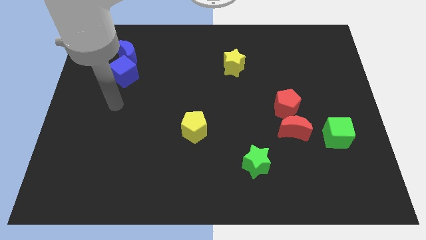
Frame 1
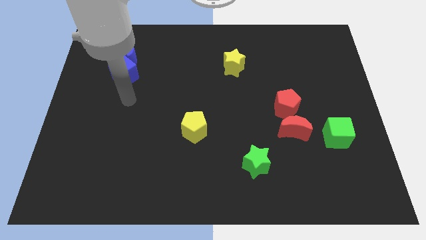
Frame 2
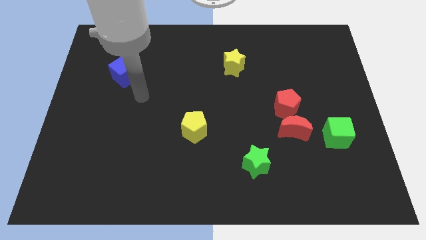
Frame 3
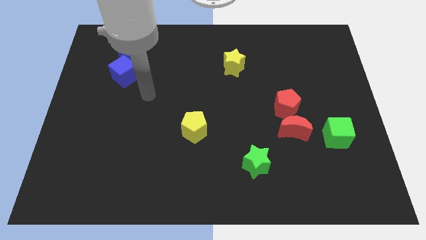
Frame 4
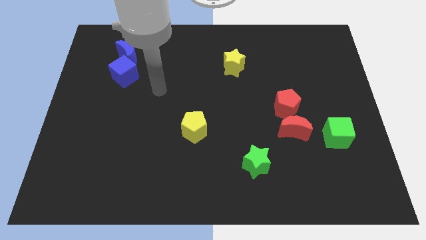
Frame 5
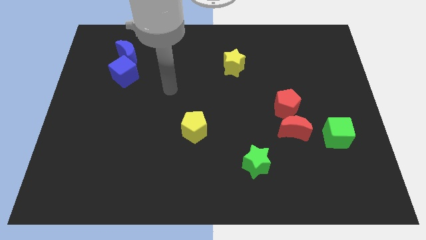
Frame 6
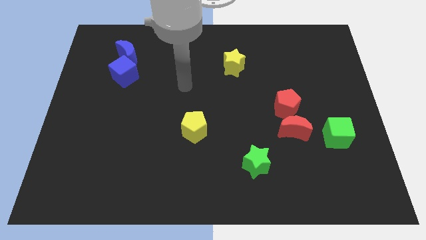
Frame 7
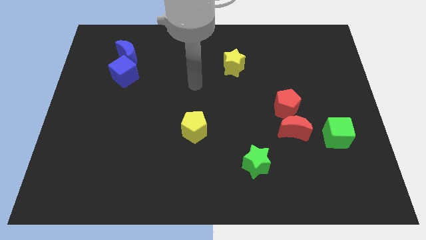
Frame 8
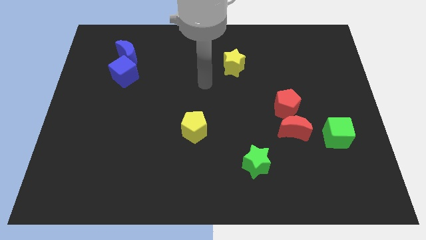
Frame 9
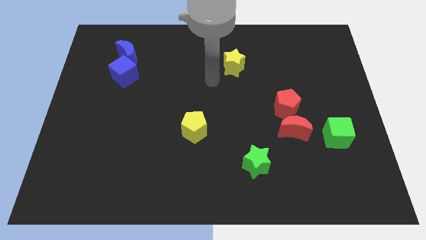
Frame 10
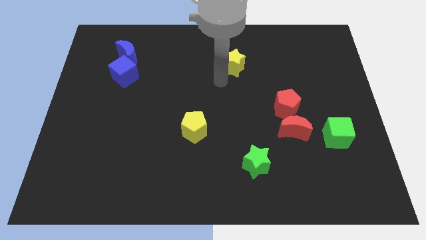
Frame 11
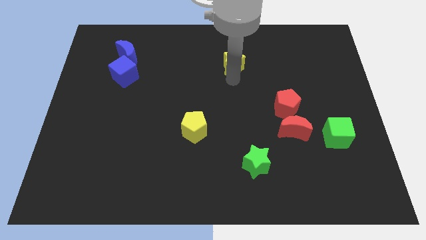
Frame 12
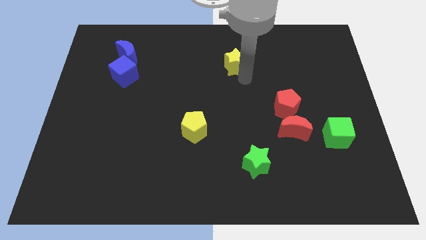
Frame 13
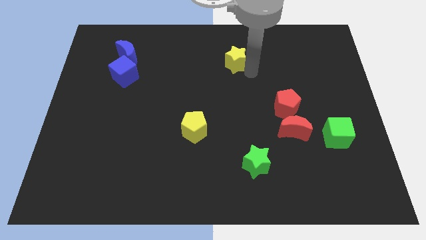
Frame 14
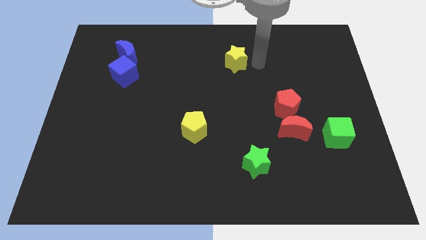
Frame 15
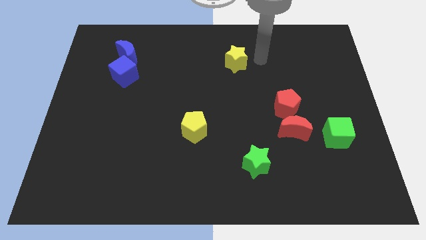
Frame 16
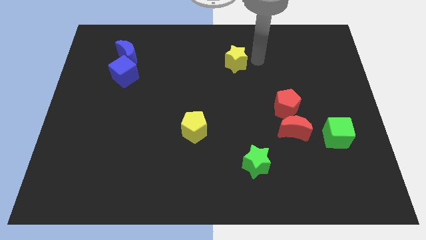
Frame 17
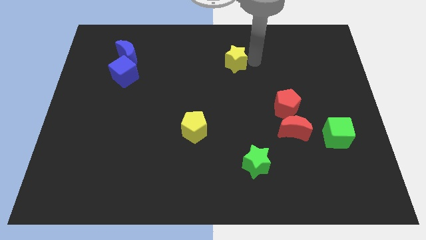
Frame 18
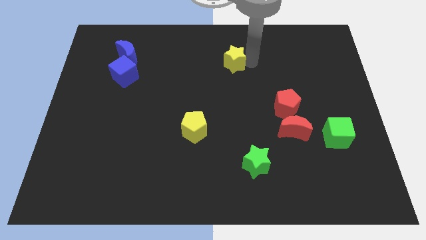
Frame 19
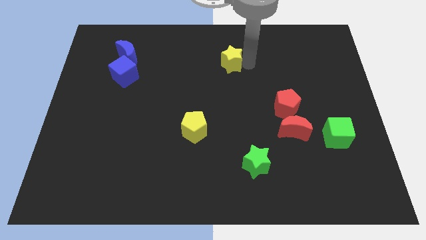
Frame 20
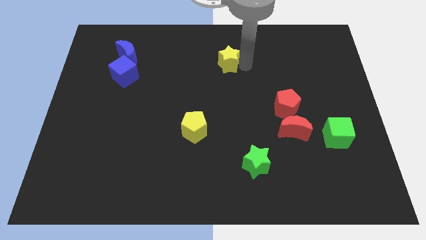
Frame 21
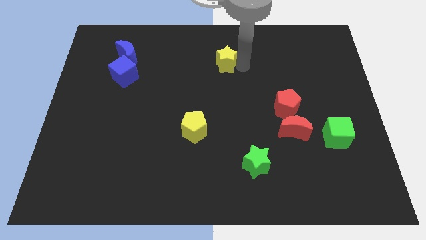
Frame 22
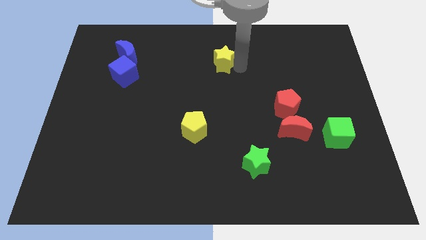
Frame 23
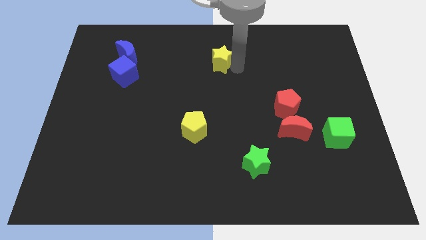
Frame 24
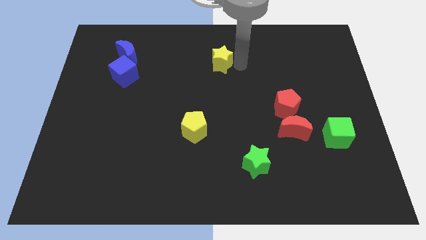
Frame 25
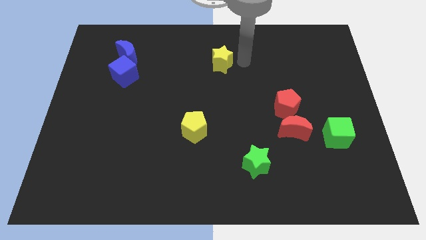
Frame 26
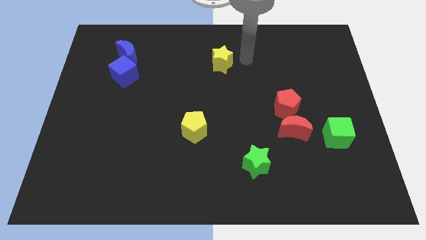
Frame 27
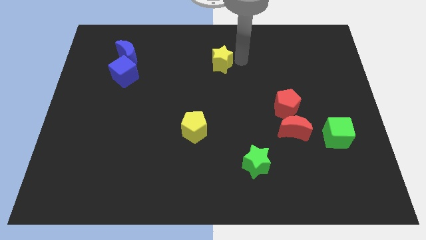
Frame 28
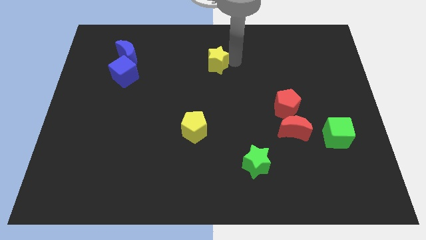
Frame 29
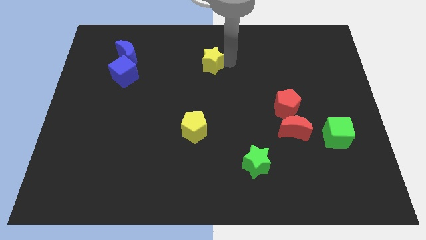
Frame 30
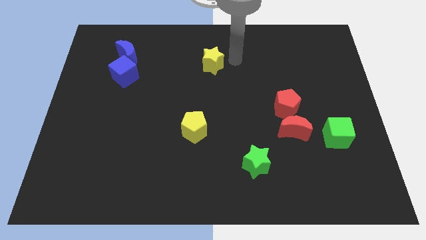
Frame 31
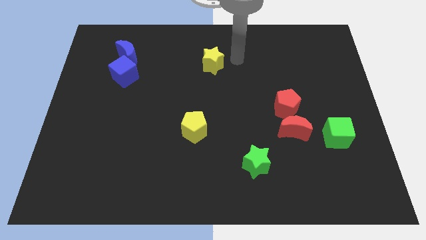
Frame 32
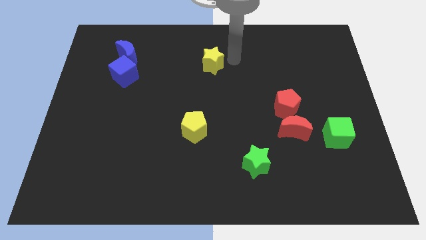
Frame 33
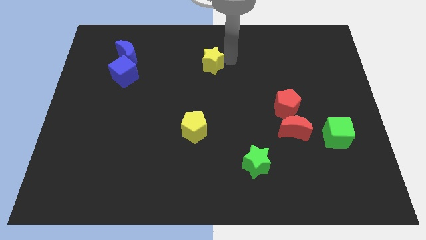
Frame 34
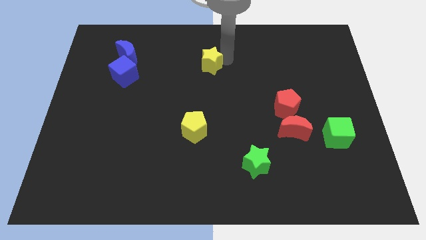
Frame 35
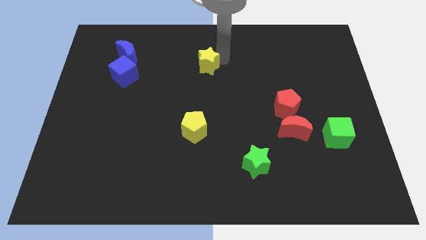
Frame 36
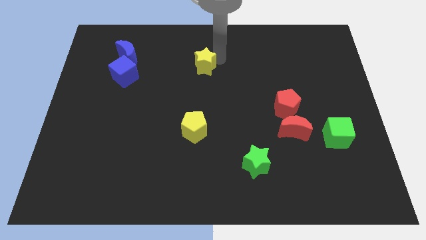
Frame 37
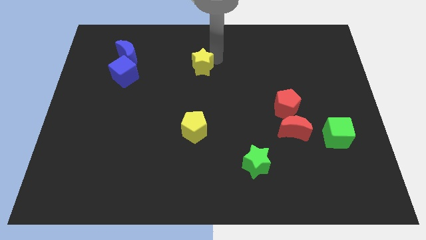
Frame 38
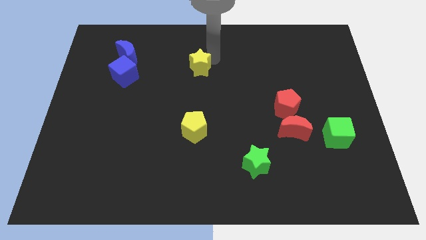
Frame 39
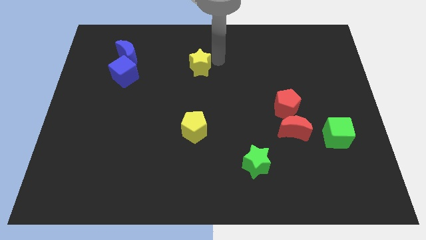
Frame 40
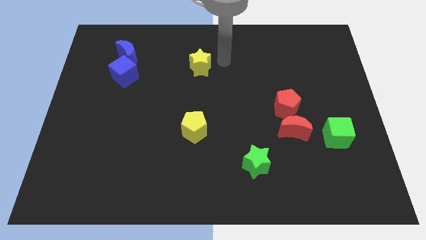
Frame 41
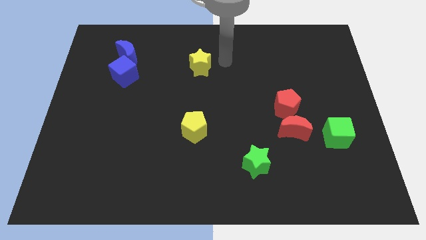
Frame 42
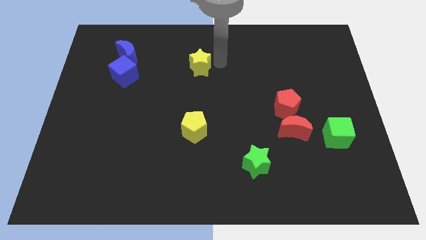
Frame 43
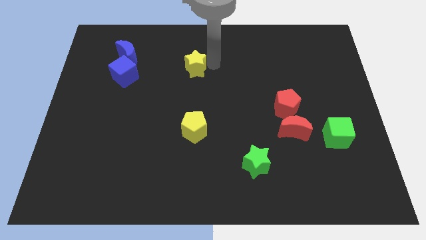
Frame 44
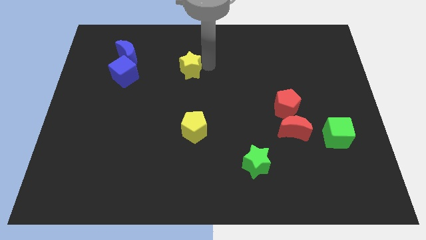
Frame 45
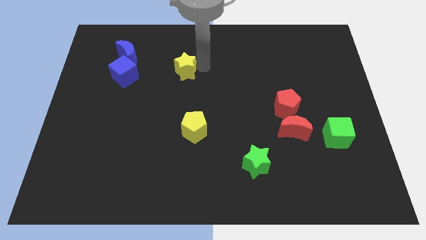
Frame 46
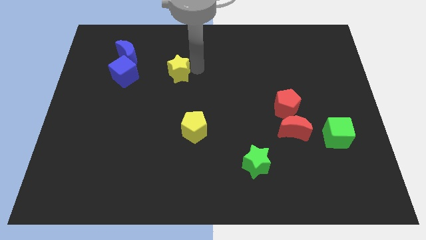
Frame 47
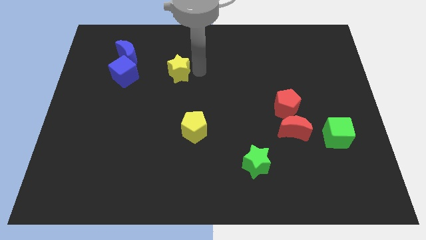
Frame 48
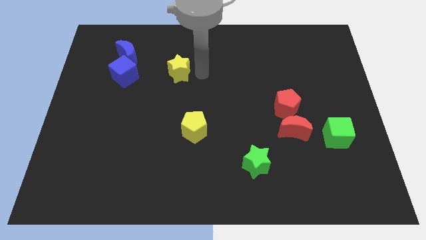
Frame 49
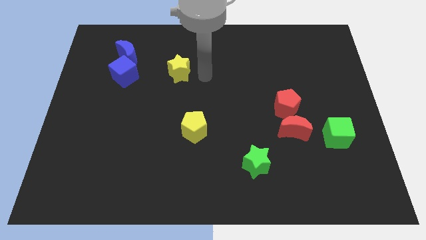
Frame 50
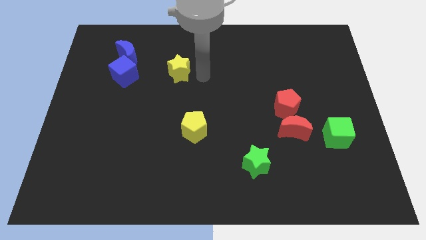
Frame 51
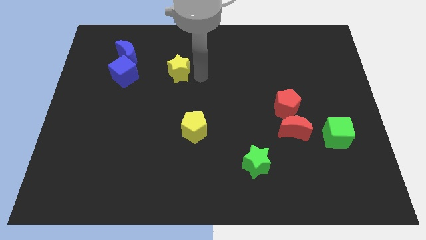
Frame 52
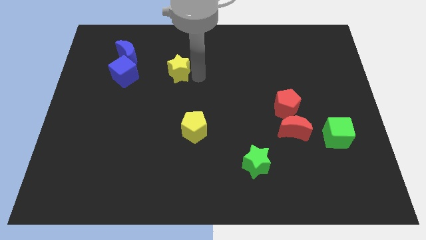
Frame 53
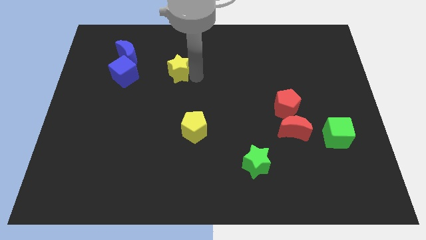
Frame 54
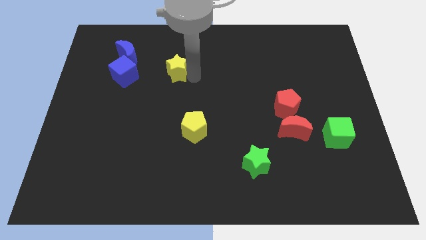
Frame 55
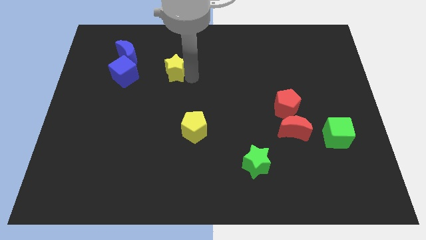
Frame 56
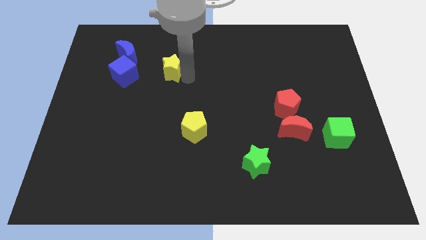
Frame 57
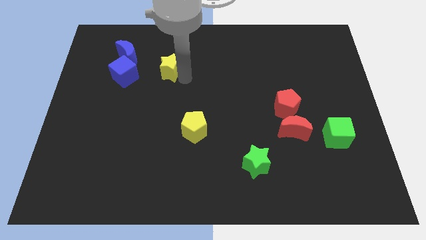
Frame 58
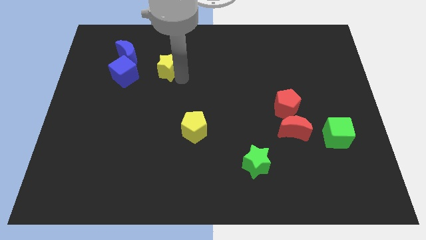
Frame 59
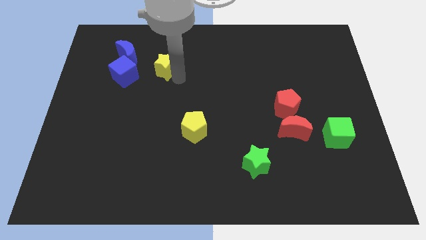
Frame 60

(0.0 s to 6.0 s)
put the yellow star to the bottom right side of the blue moon

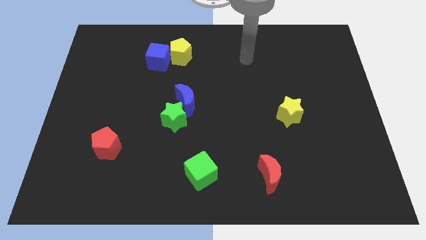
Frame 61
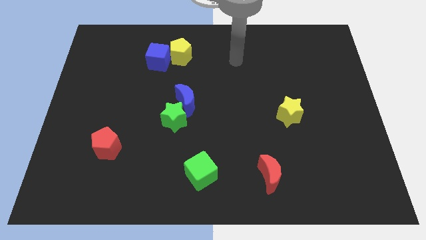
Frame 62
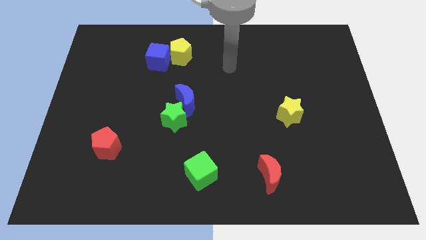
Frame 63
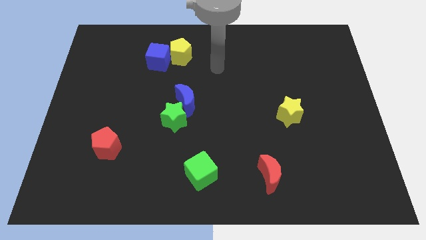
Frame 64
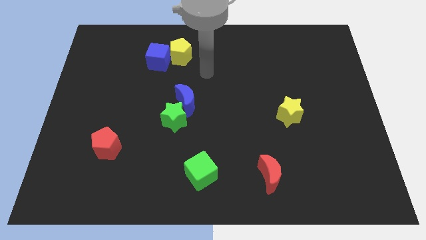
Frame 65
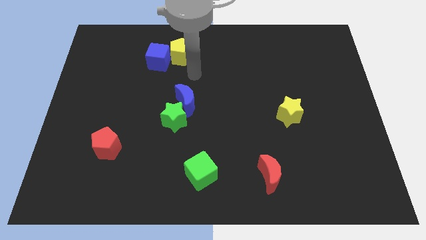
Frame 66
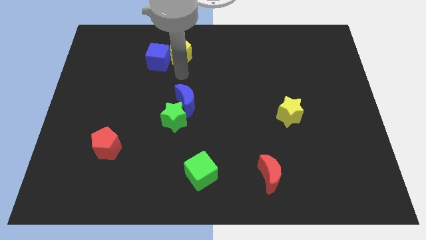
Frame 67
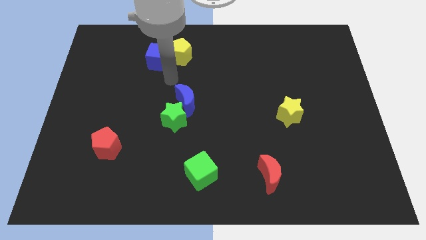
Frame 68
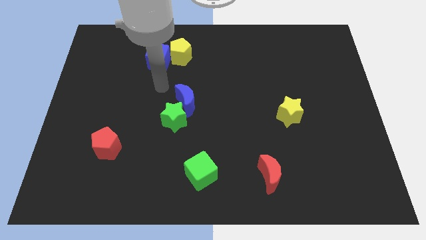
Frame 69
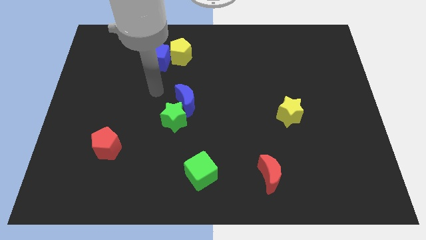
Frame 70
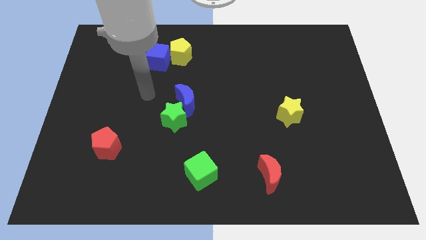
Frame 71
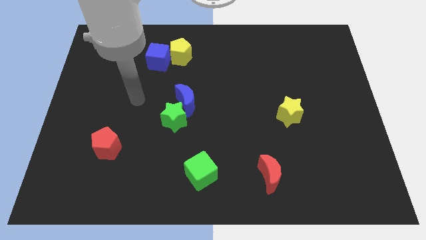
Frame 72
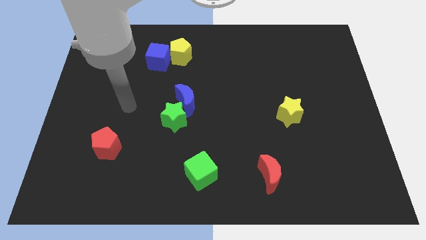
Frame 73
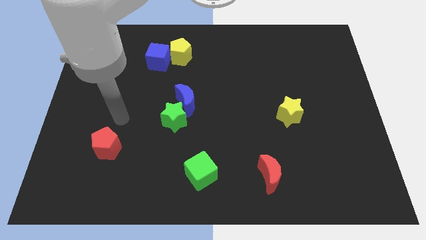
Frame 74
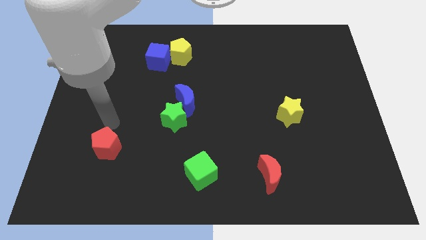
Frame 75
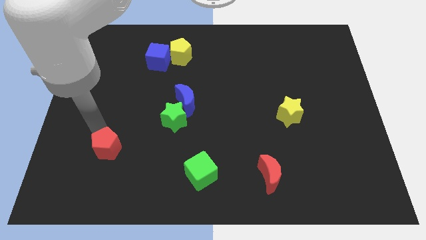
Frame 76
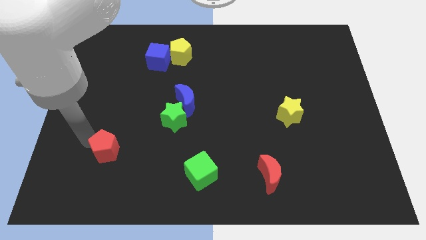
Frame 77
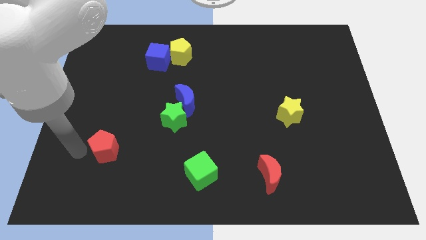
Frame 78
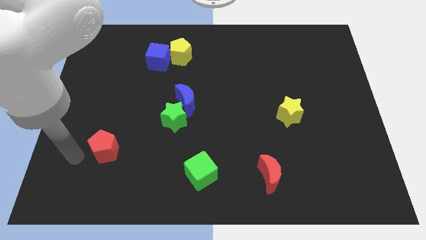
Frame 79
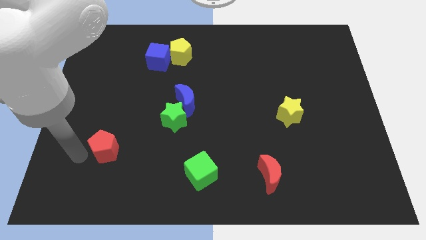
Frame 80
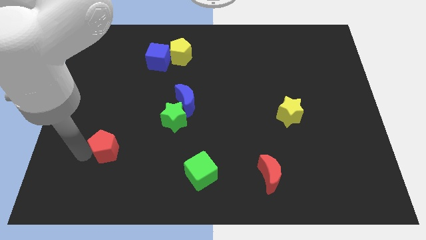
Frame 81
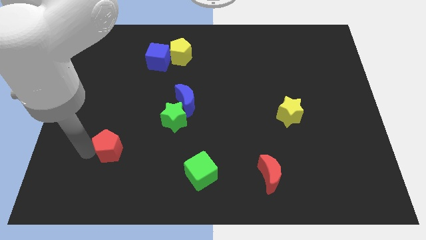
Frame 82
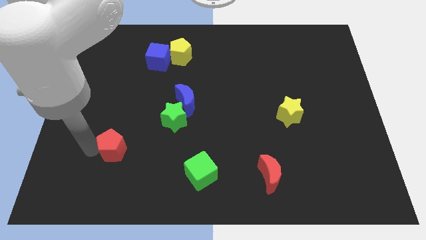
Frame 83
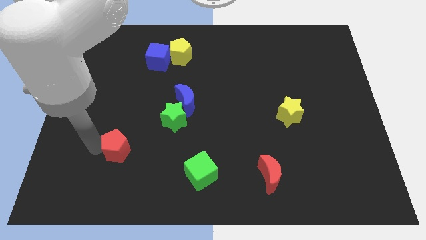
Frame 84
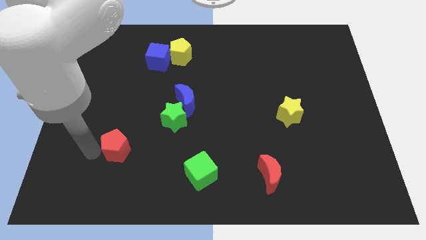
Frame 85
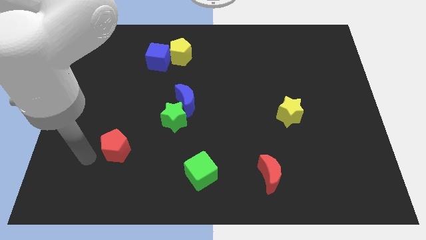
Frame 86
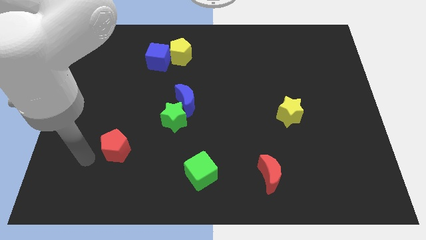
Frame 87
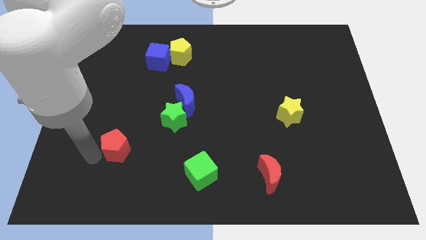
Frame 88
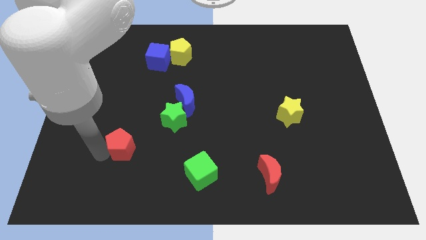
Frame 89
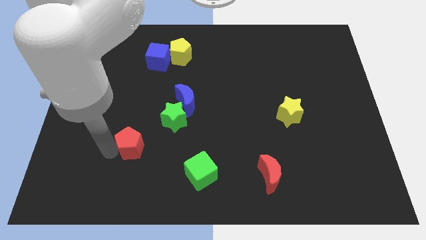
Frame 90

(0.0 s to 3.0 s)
push the red pentagon to the bottom left of the green star
